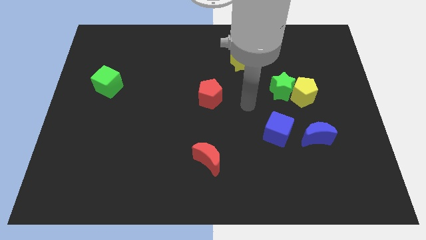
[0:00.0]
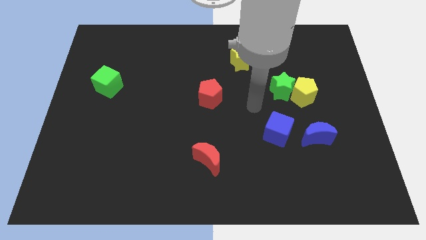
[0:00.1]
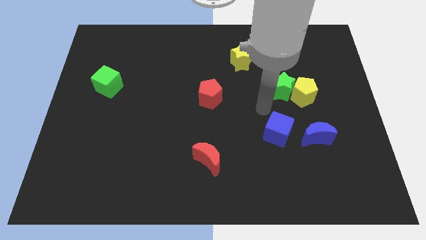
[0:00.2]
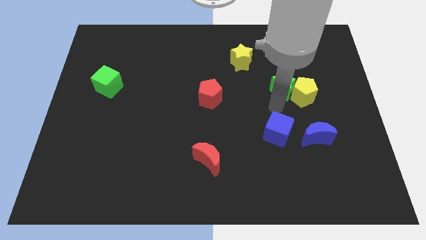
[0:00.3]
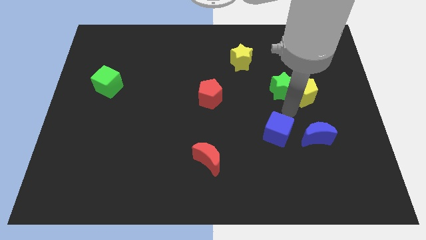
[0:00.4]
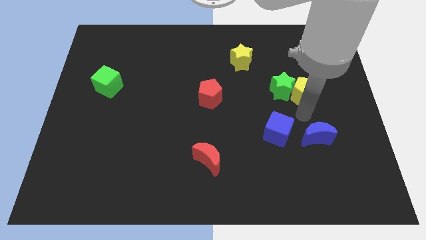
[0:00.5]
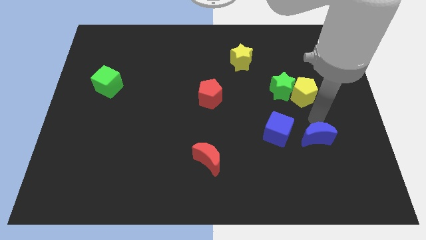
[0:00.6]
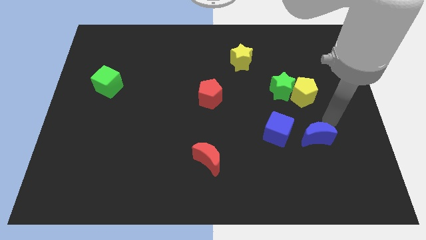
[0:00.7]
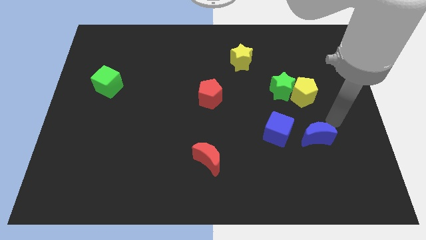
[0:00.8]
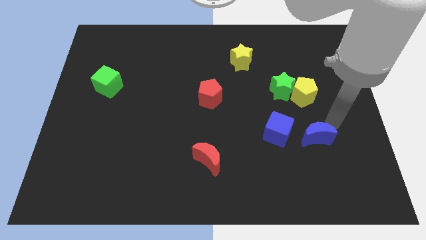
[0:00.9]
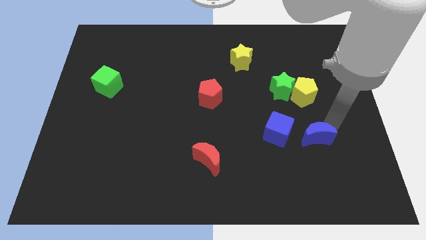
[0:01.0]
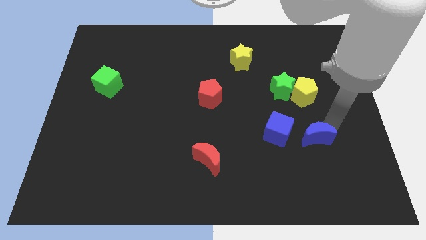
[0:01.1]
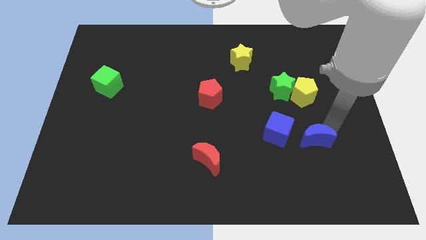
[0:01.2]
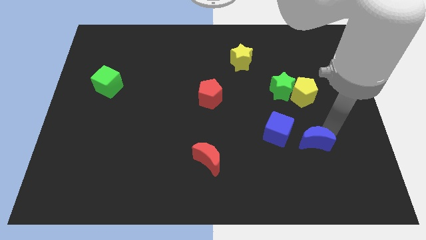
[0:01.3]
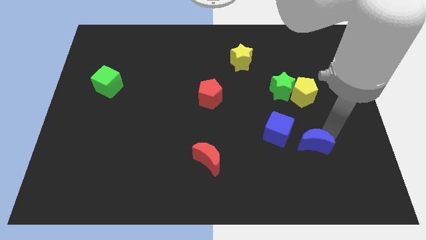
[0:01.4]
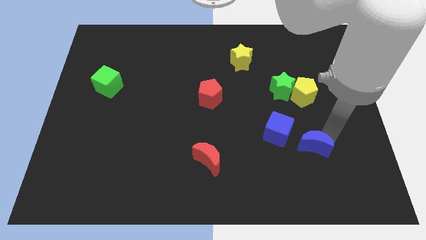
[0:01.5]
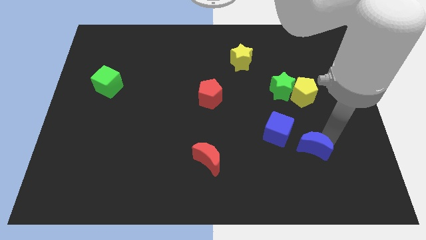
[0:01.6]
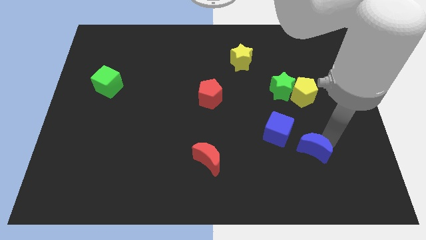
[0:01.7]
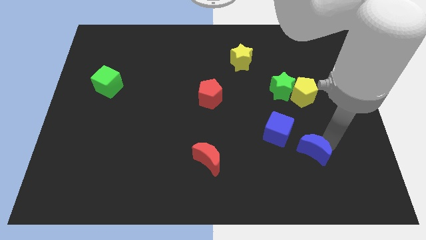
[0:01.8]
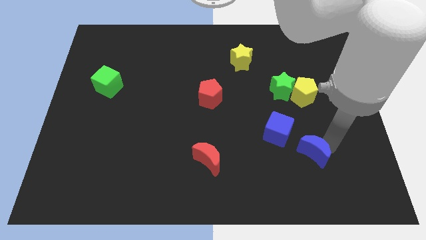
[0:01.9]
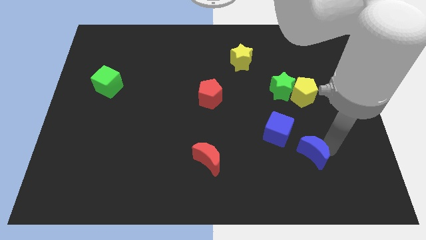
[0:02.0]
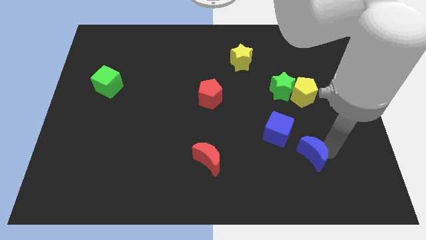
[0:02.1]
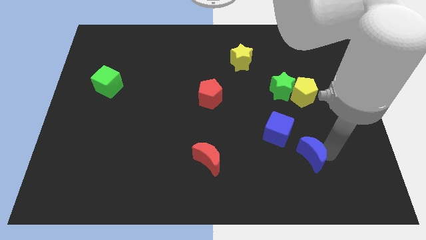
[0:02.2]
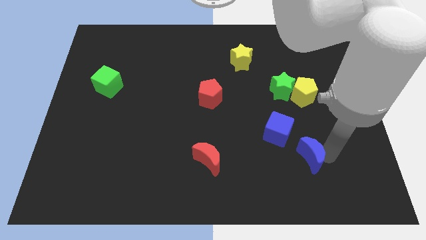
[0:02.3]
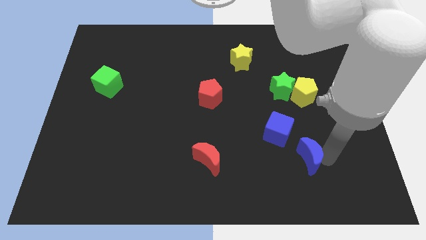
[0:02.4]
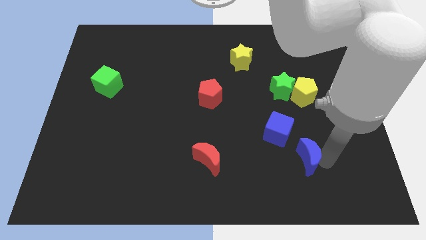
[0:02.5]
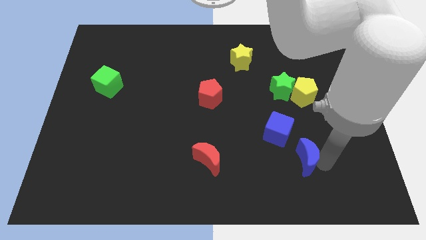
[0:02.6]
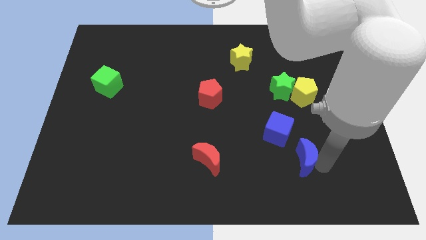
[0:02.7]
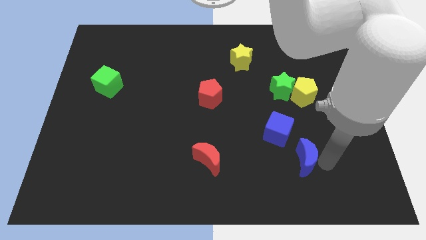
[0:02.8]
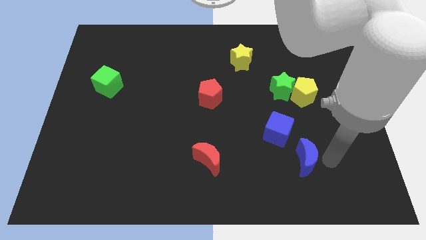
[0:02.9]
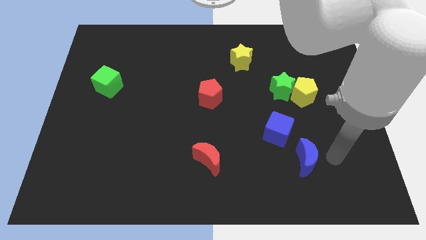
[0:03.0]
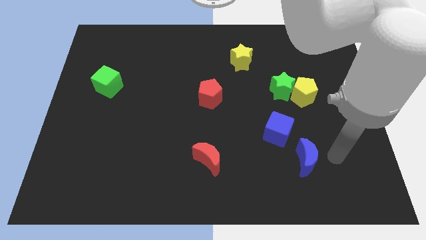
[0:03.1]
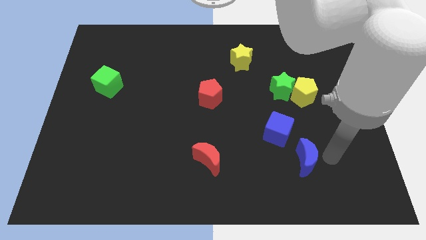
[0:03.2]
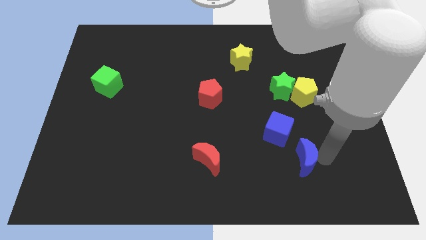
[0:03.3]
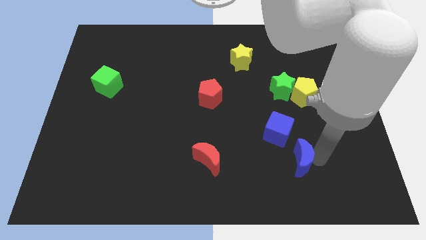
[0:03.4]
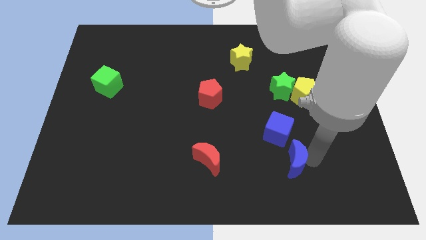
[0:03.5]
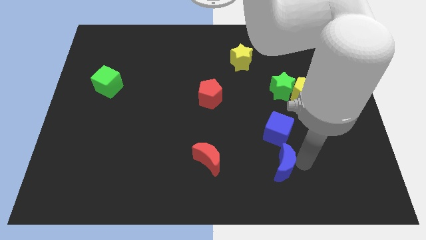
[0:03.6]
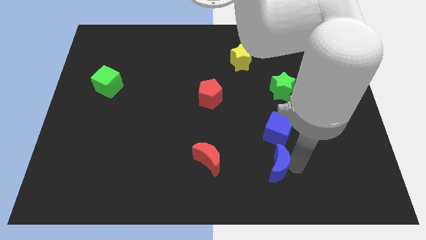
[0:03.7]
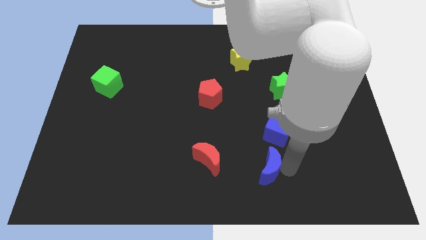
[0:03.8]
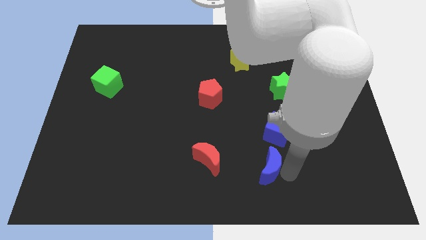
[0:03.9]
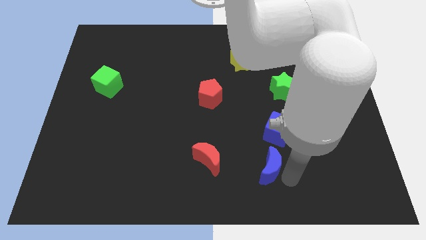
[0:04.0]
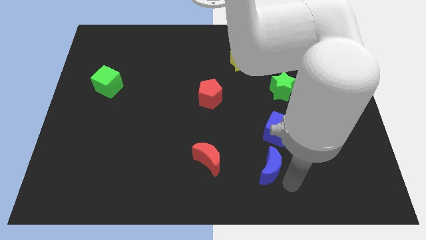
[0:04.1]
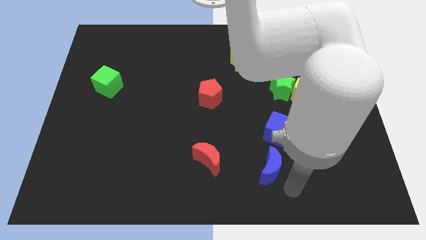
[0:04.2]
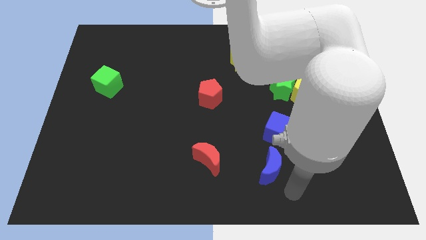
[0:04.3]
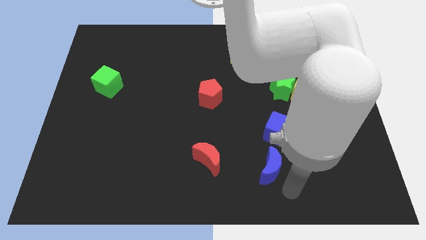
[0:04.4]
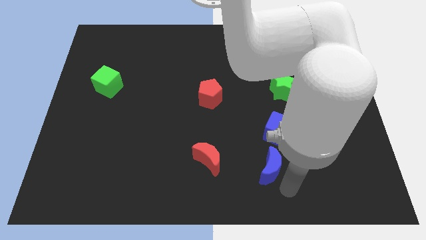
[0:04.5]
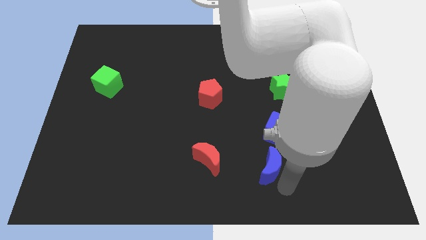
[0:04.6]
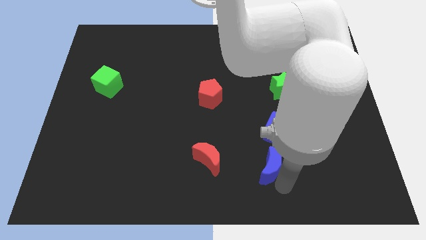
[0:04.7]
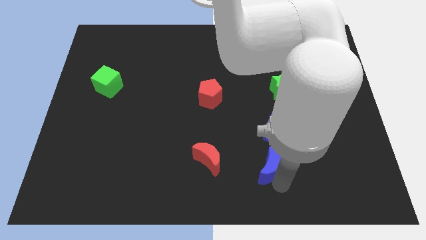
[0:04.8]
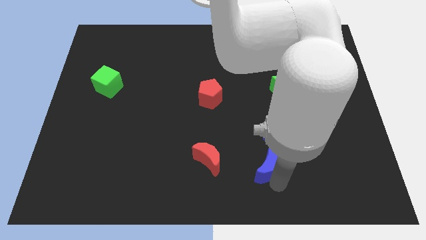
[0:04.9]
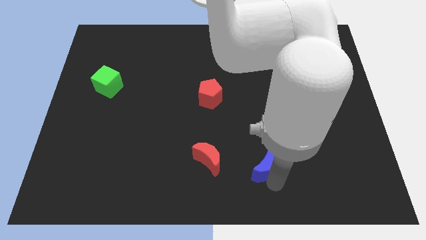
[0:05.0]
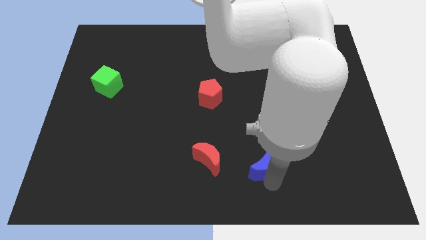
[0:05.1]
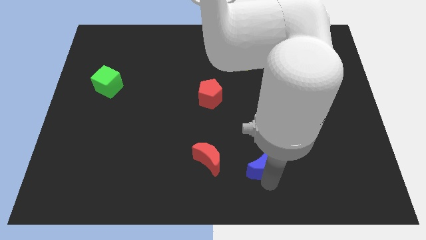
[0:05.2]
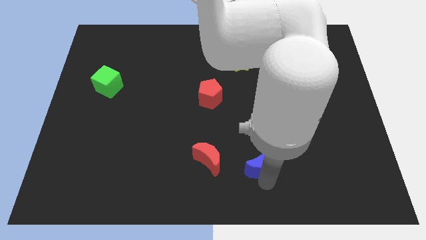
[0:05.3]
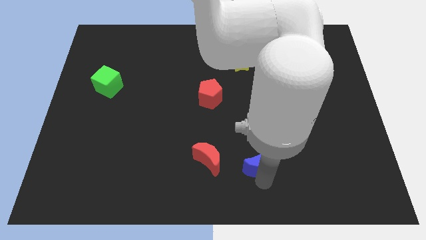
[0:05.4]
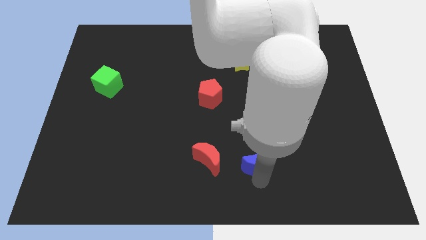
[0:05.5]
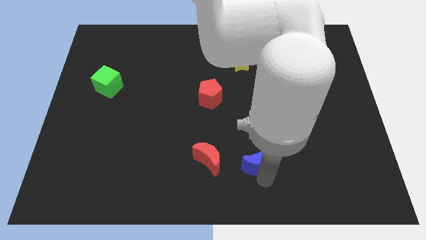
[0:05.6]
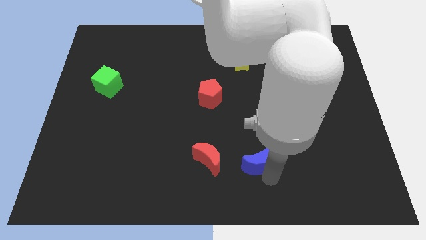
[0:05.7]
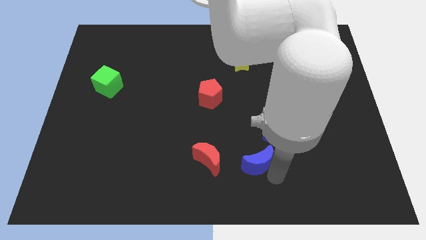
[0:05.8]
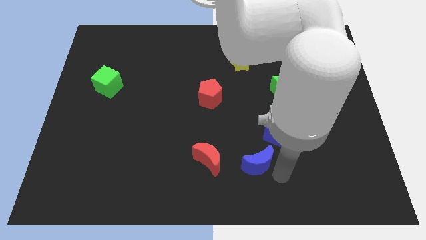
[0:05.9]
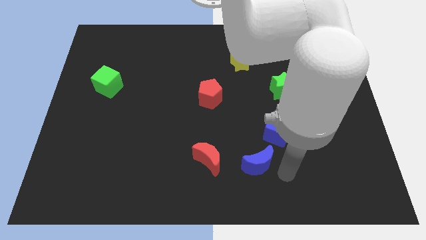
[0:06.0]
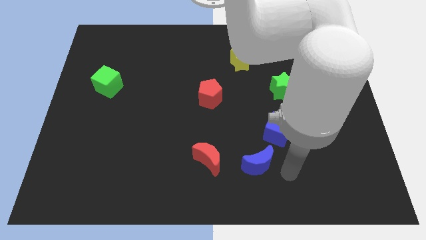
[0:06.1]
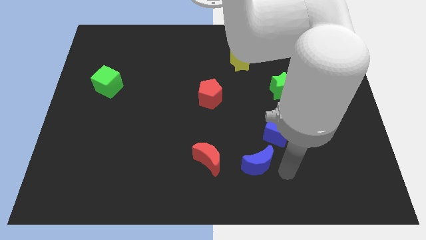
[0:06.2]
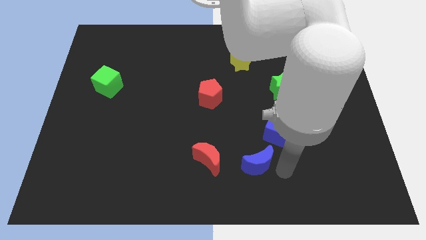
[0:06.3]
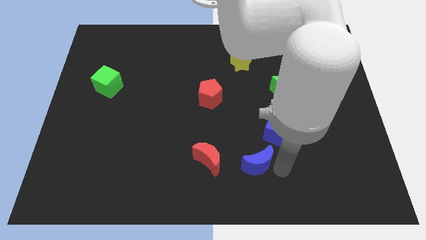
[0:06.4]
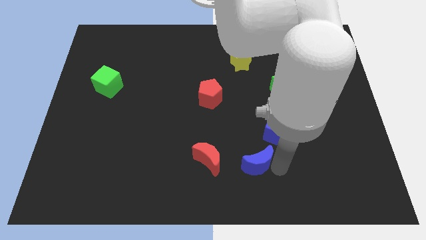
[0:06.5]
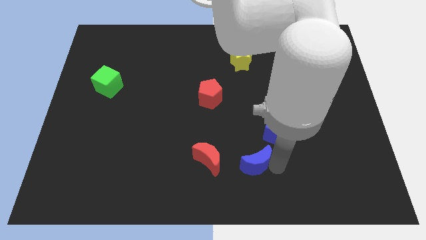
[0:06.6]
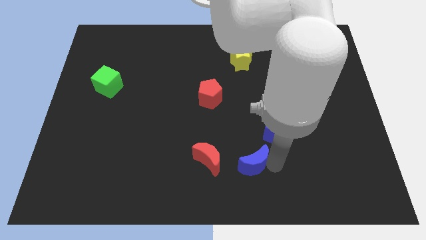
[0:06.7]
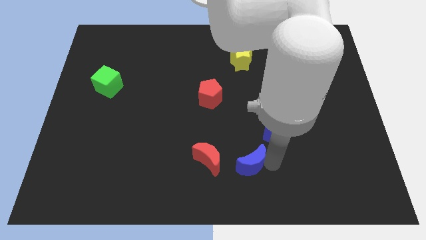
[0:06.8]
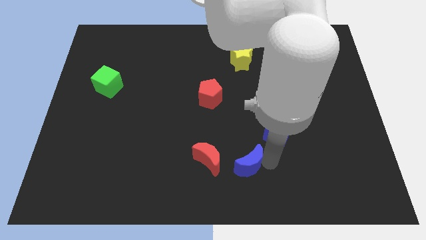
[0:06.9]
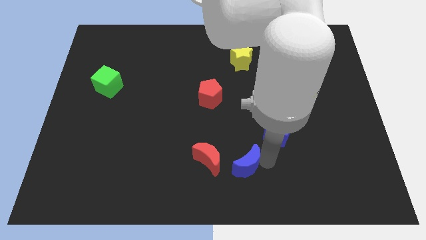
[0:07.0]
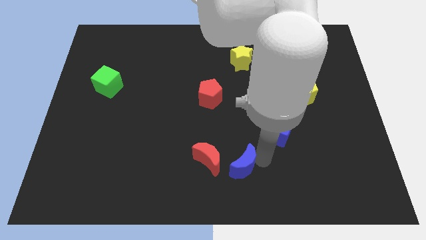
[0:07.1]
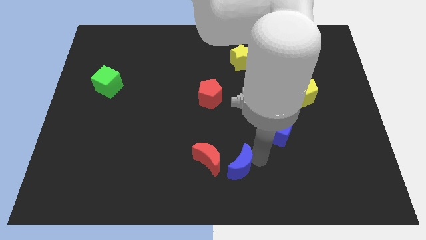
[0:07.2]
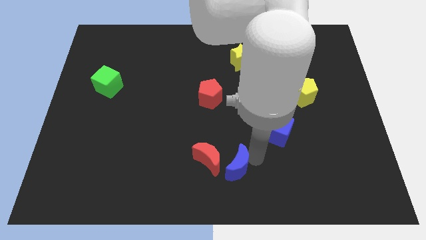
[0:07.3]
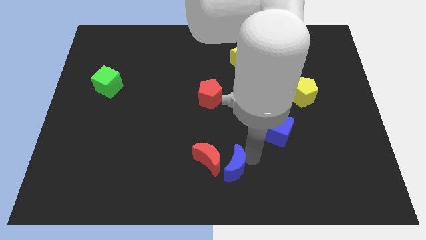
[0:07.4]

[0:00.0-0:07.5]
push the blue moon next to the red moon
